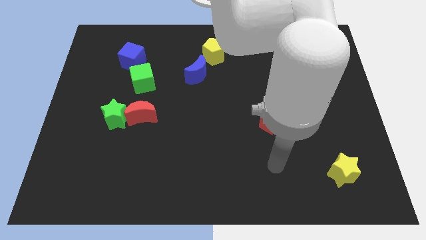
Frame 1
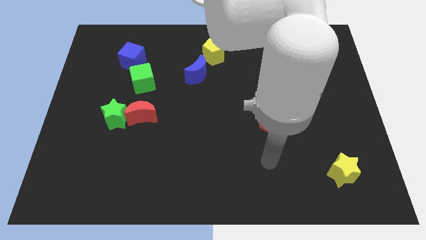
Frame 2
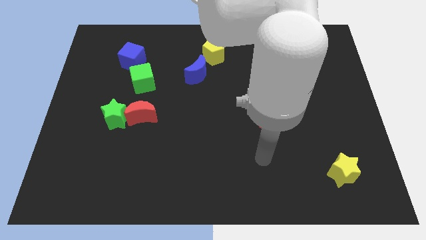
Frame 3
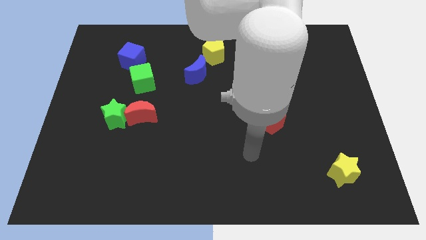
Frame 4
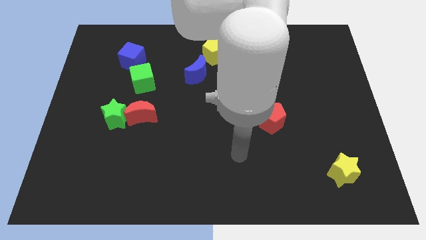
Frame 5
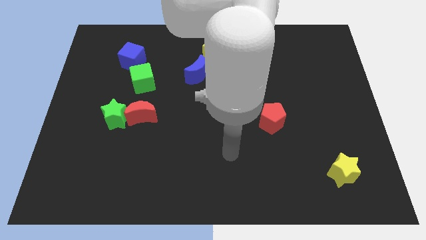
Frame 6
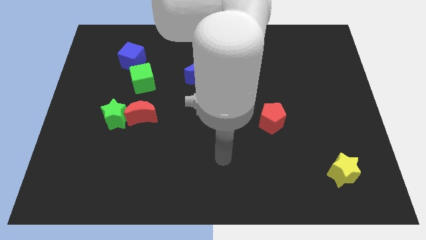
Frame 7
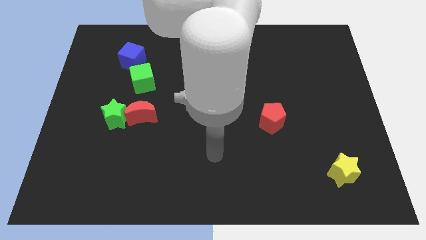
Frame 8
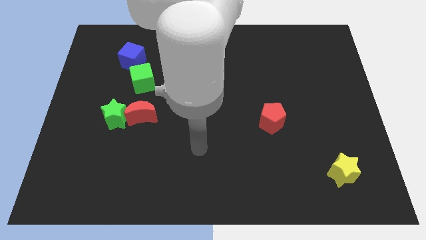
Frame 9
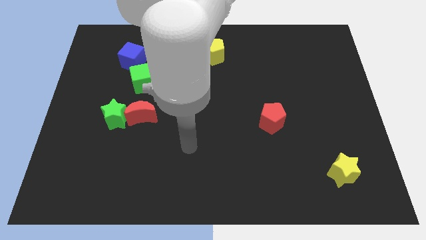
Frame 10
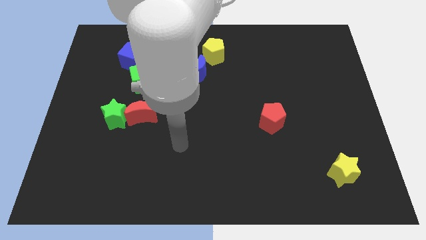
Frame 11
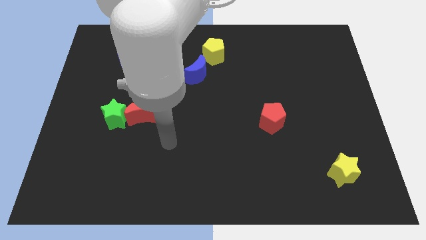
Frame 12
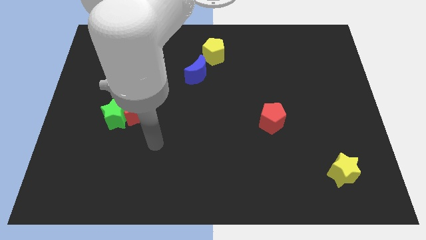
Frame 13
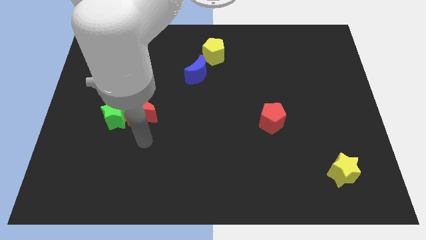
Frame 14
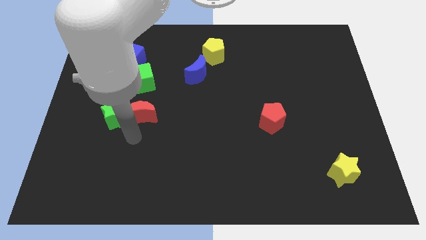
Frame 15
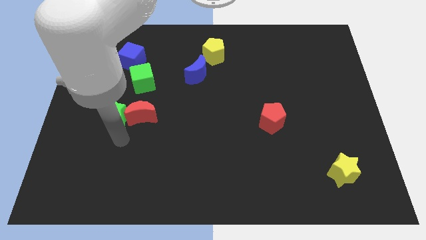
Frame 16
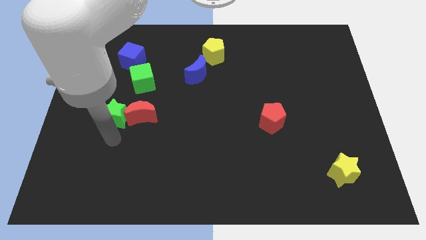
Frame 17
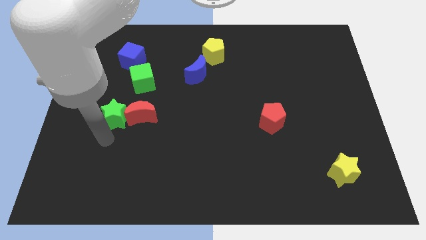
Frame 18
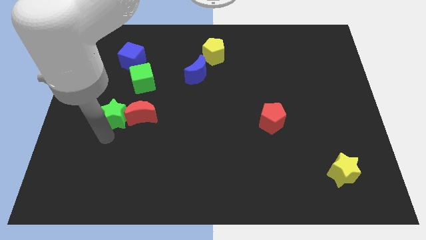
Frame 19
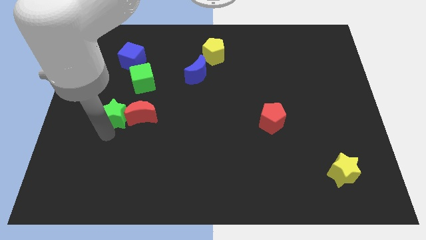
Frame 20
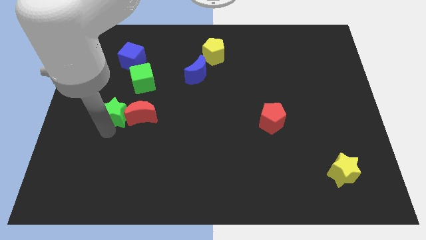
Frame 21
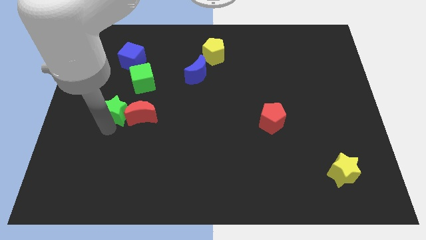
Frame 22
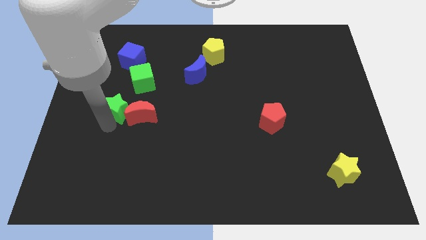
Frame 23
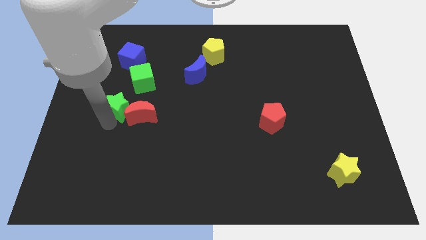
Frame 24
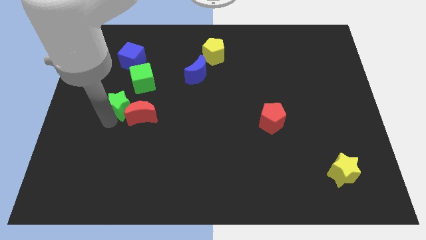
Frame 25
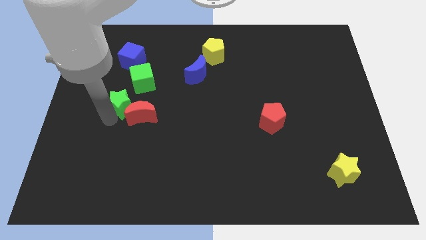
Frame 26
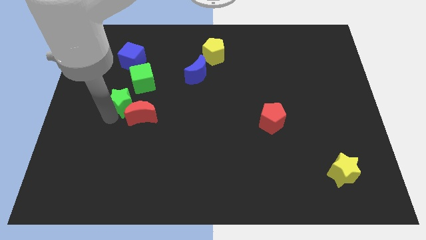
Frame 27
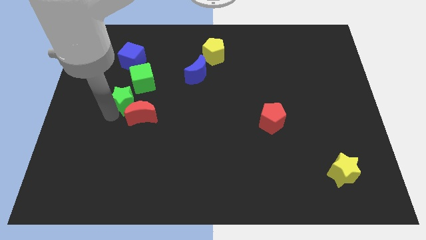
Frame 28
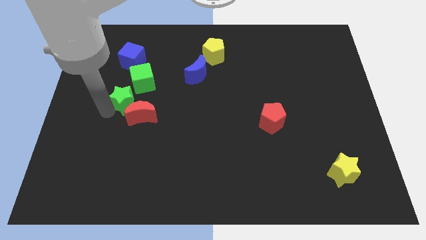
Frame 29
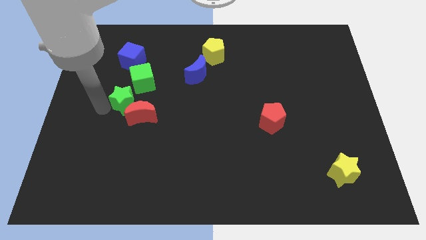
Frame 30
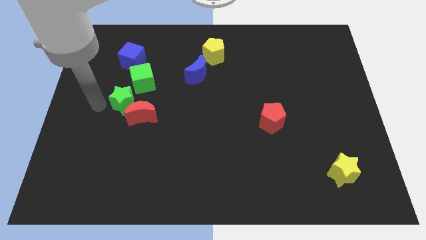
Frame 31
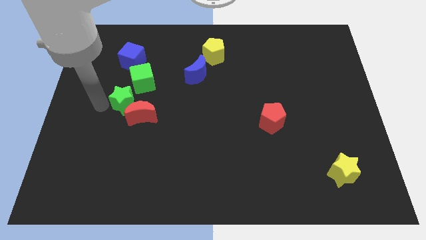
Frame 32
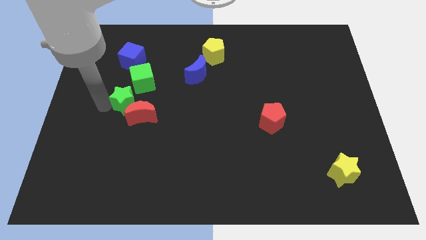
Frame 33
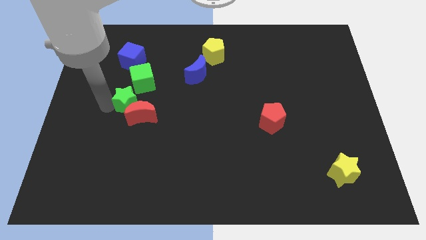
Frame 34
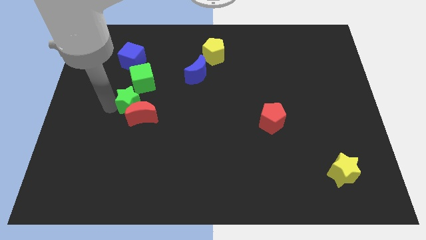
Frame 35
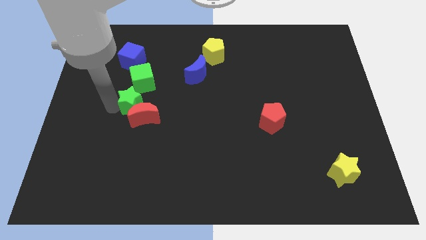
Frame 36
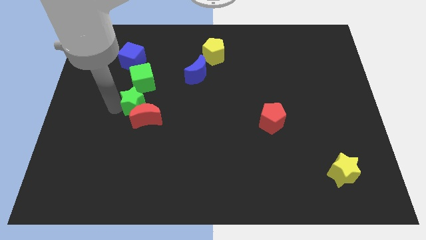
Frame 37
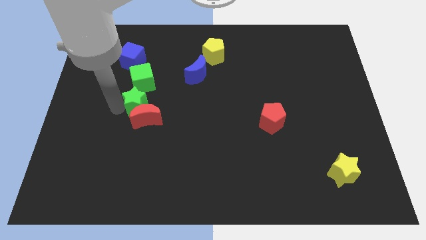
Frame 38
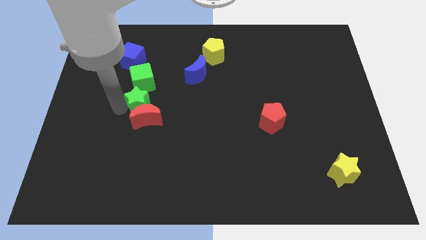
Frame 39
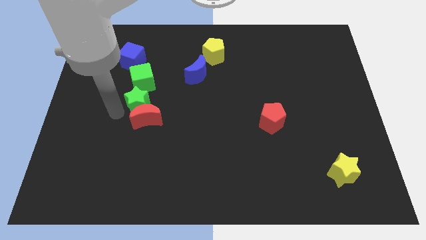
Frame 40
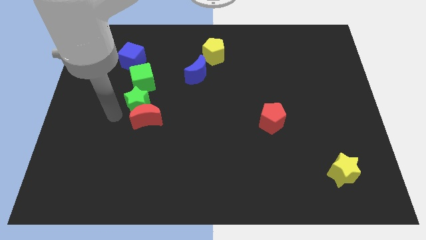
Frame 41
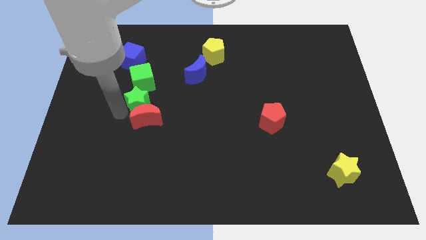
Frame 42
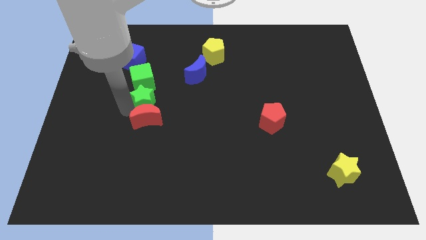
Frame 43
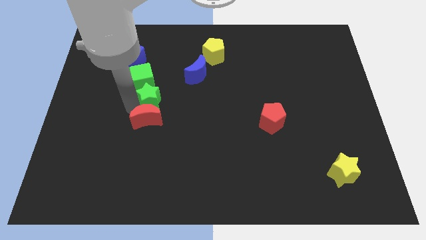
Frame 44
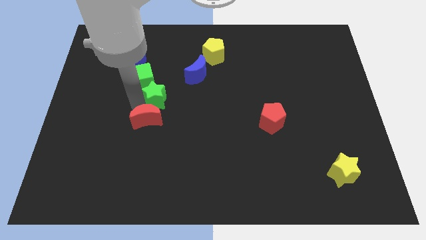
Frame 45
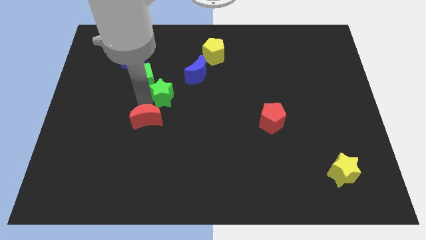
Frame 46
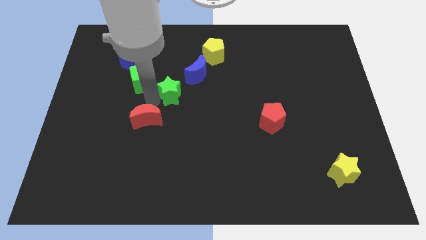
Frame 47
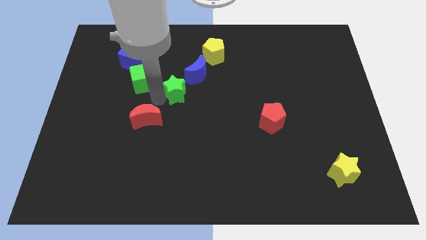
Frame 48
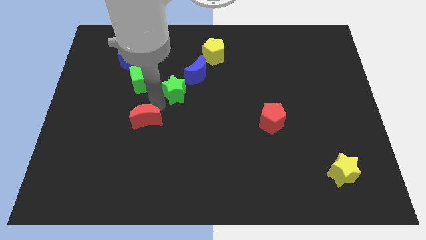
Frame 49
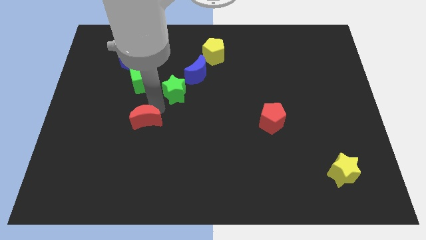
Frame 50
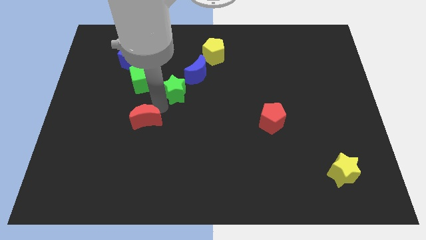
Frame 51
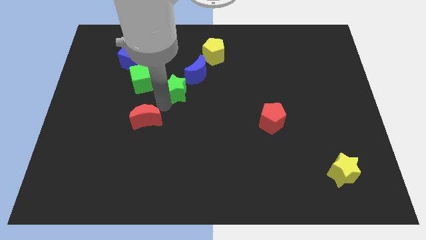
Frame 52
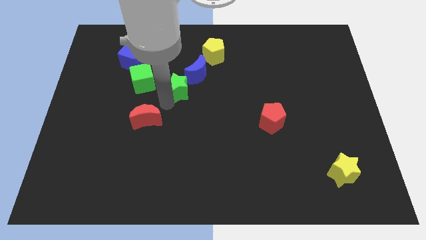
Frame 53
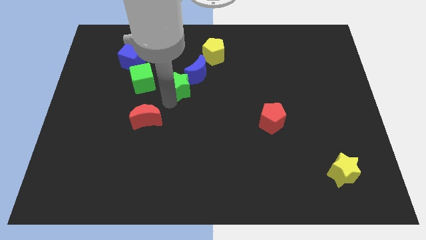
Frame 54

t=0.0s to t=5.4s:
put the green star close to the blue moon

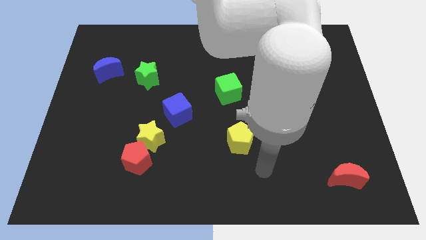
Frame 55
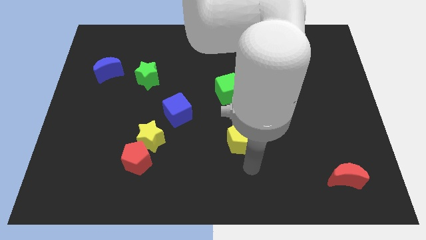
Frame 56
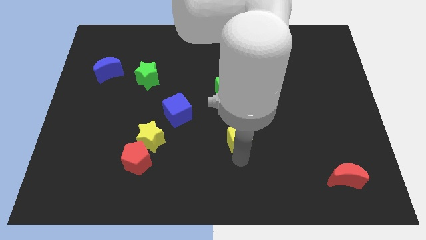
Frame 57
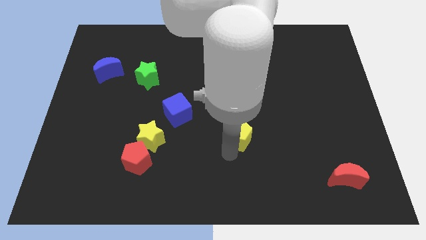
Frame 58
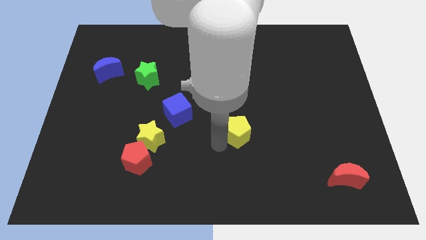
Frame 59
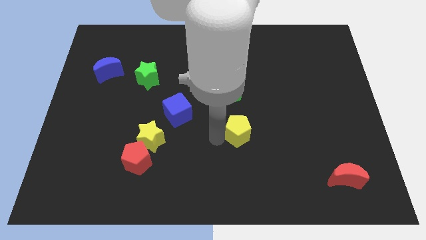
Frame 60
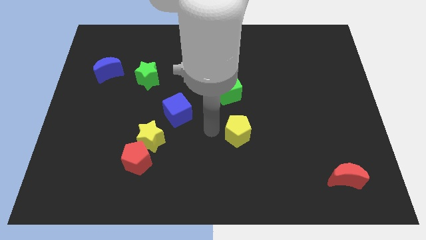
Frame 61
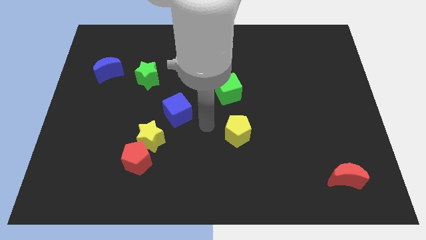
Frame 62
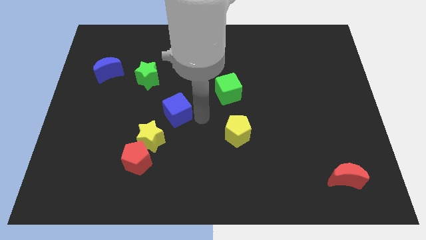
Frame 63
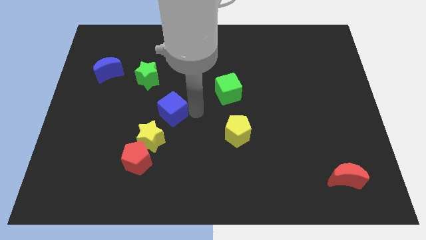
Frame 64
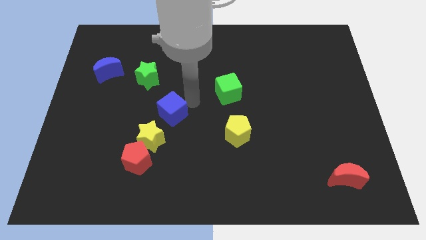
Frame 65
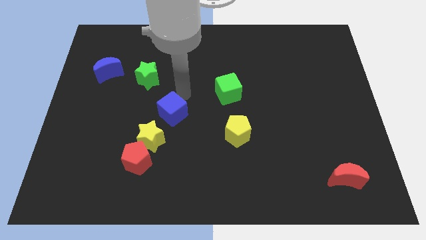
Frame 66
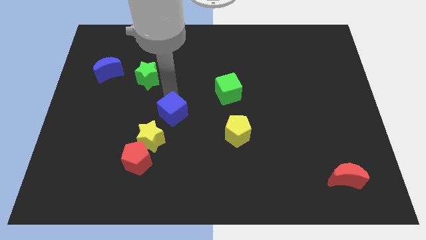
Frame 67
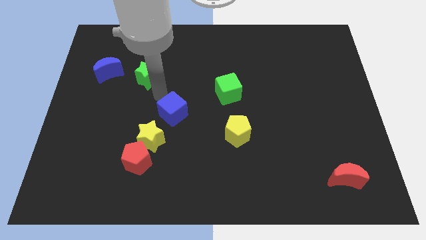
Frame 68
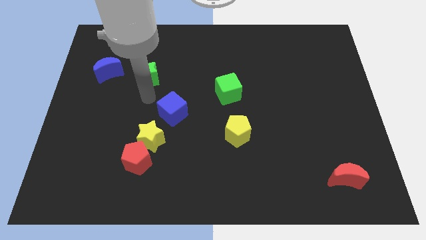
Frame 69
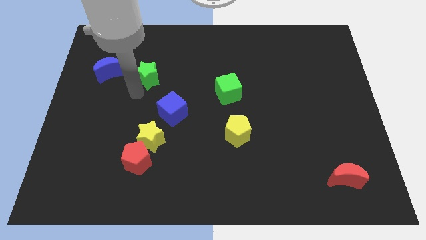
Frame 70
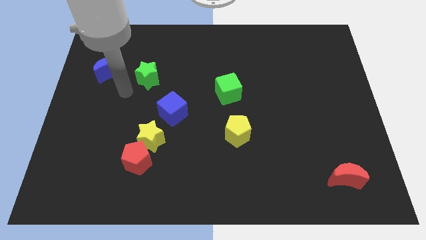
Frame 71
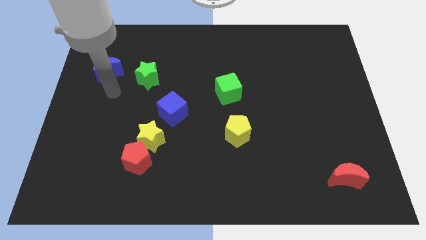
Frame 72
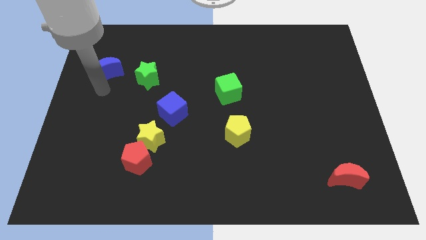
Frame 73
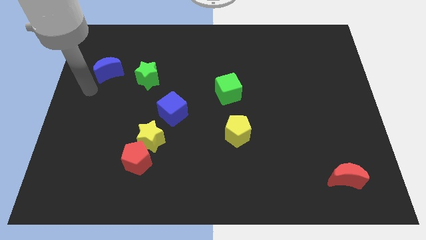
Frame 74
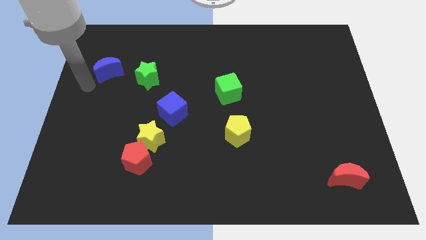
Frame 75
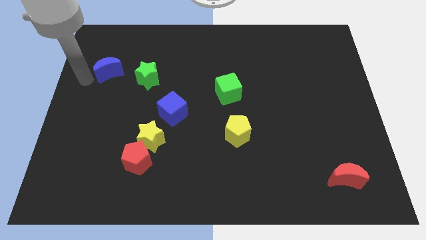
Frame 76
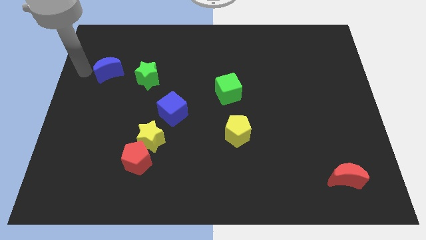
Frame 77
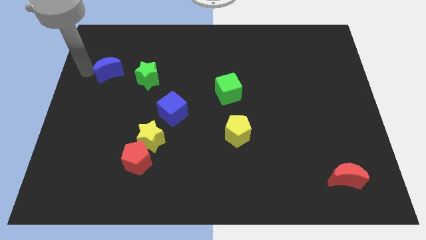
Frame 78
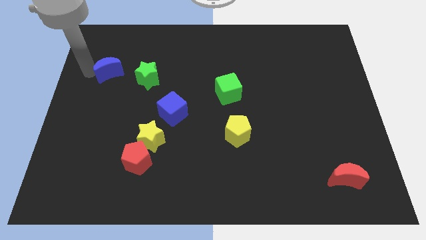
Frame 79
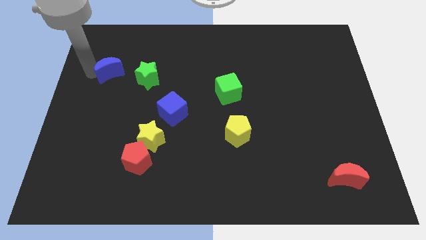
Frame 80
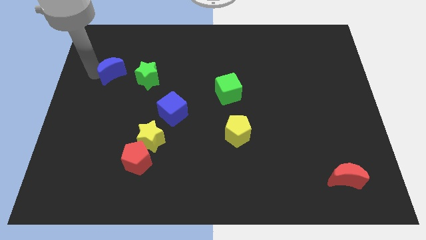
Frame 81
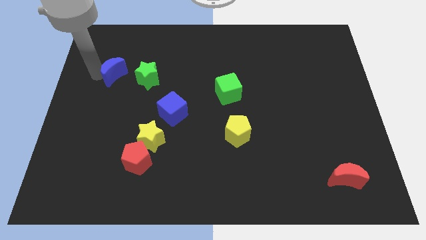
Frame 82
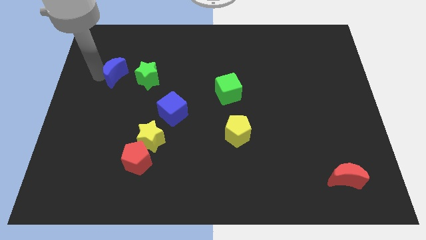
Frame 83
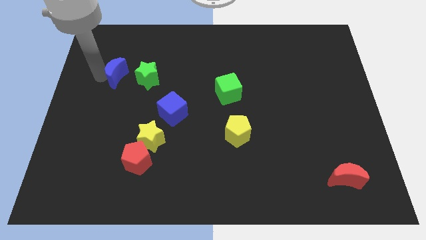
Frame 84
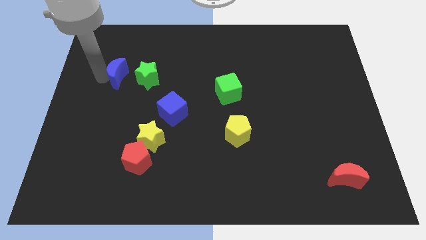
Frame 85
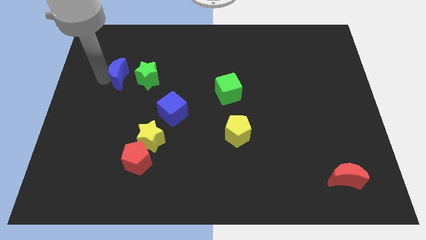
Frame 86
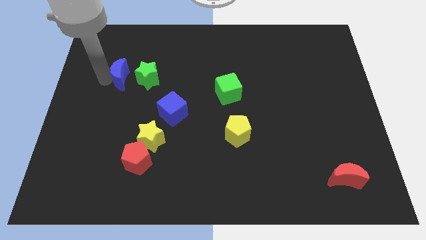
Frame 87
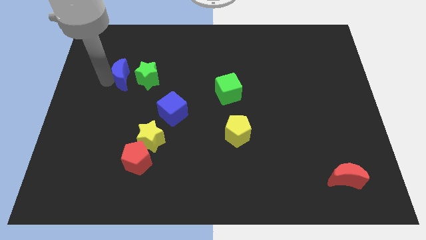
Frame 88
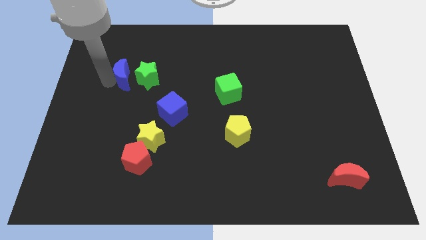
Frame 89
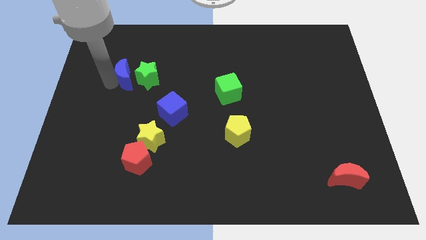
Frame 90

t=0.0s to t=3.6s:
slide the blue moon to the green star
